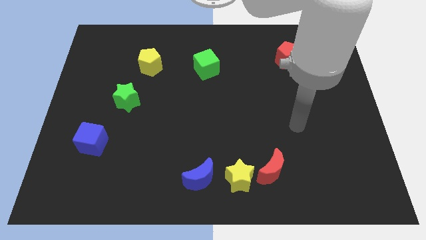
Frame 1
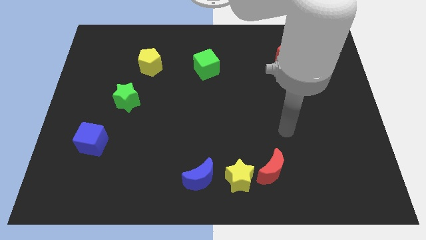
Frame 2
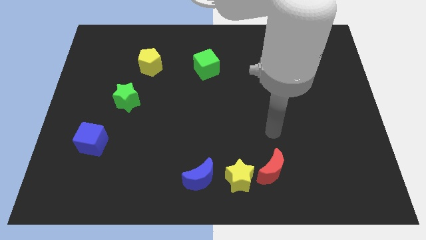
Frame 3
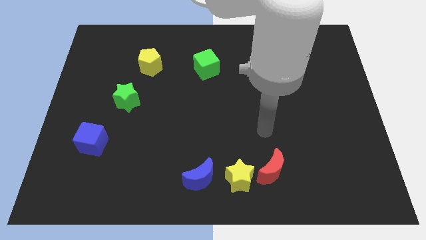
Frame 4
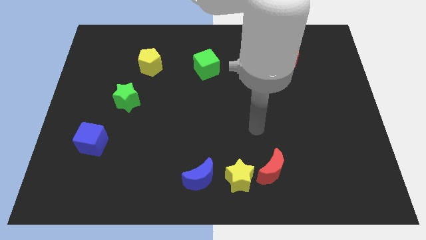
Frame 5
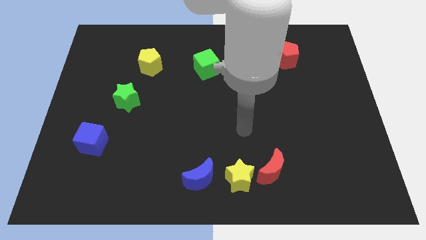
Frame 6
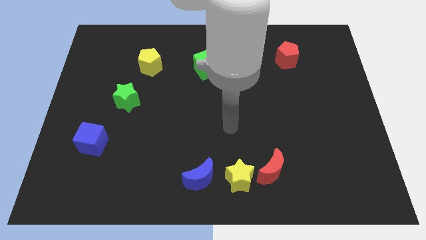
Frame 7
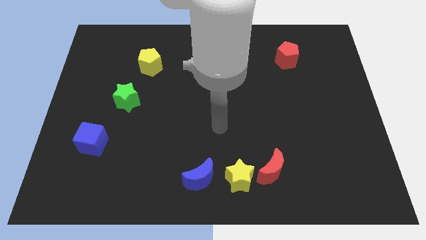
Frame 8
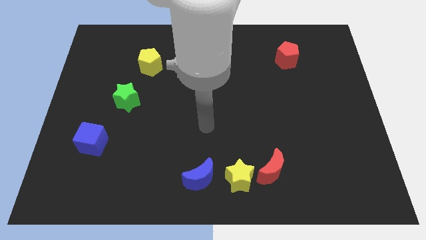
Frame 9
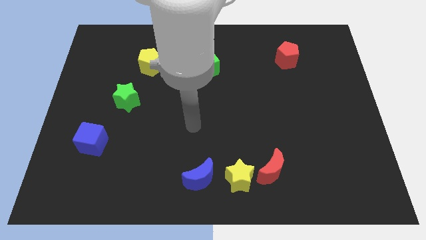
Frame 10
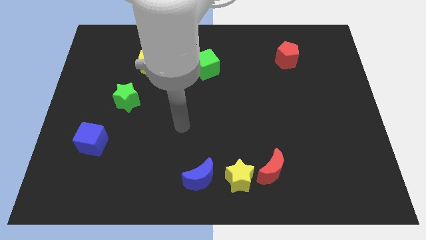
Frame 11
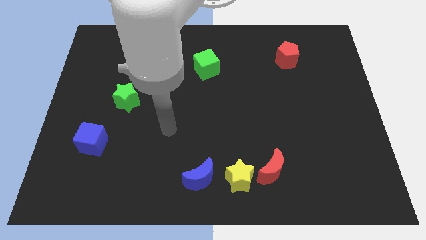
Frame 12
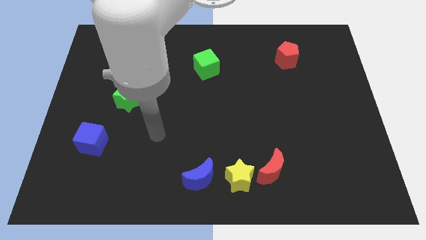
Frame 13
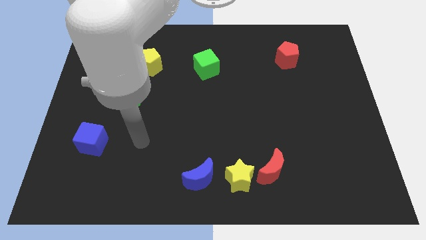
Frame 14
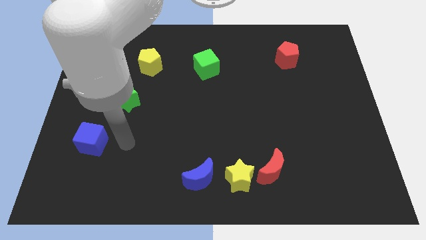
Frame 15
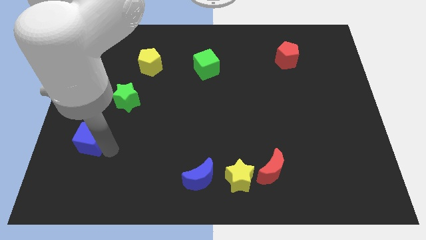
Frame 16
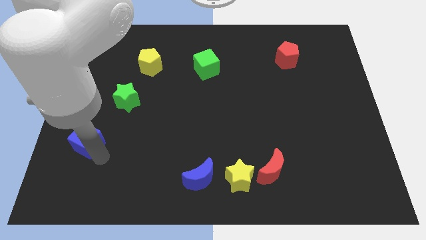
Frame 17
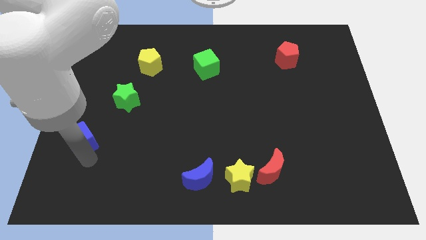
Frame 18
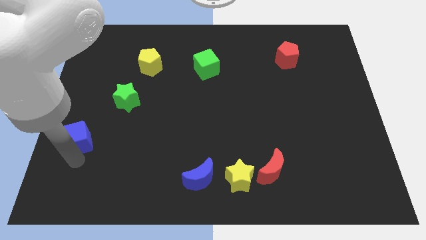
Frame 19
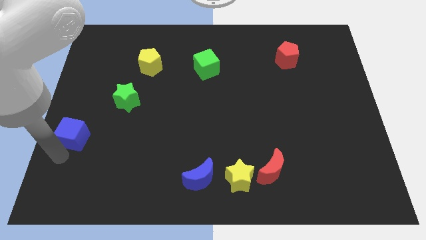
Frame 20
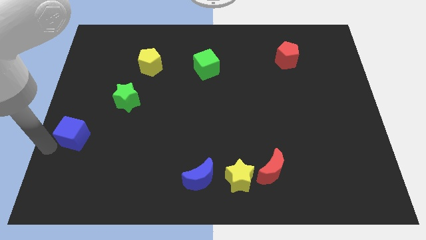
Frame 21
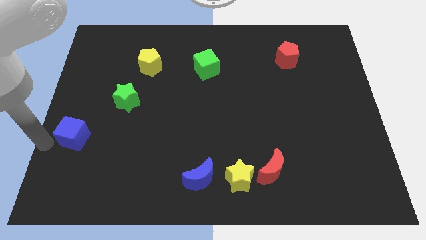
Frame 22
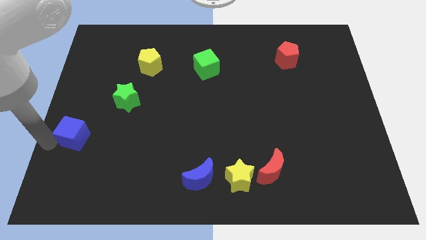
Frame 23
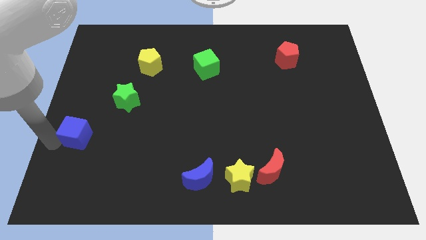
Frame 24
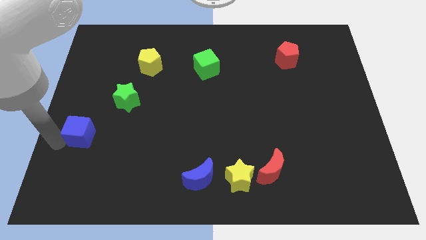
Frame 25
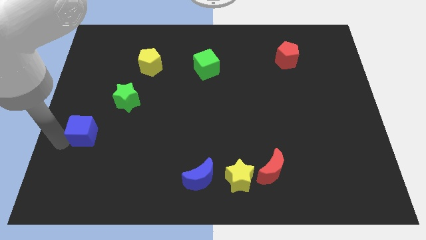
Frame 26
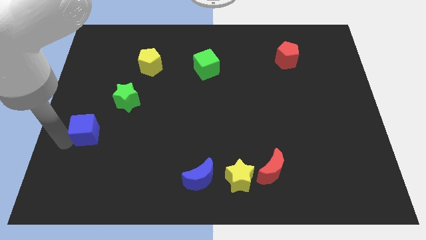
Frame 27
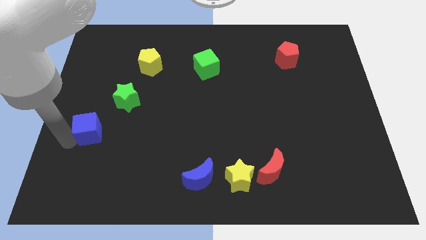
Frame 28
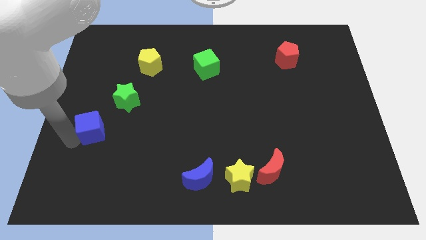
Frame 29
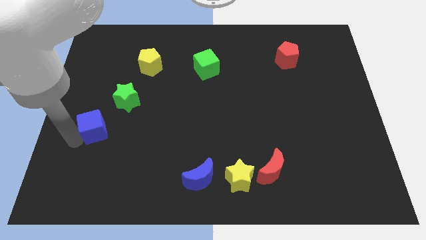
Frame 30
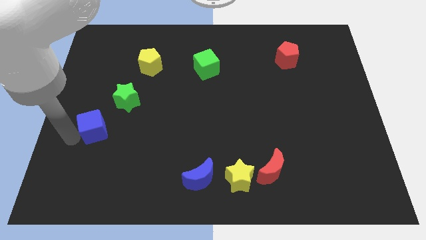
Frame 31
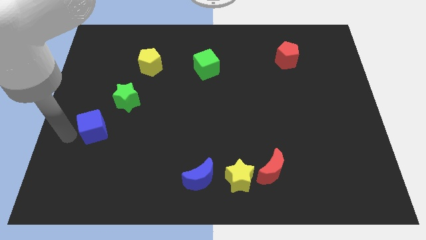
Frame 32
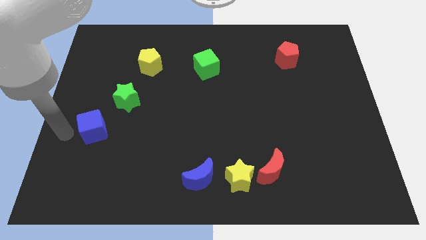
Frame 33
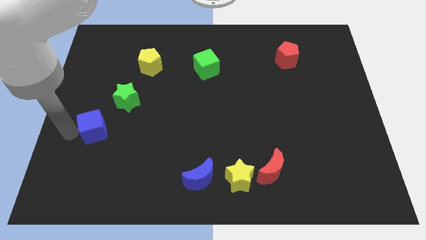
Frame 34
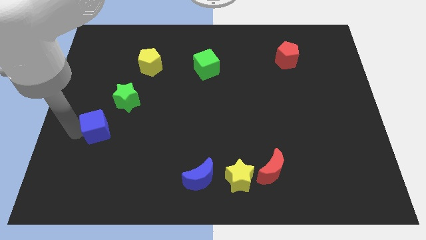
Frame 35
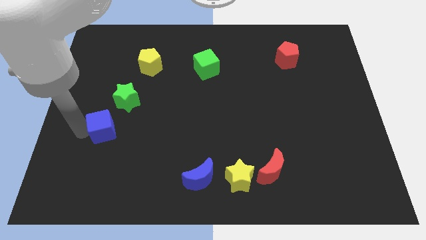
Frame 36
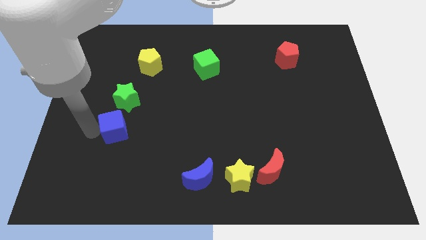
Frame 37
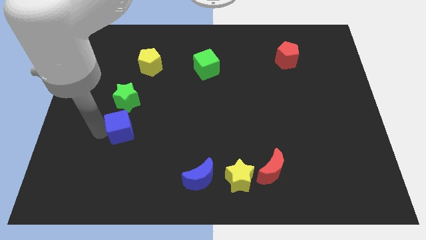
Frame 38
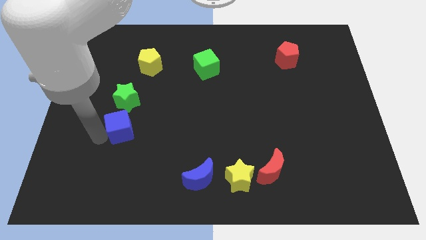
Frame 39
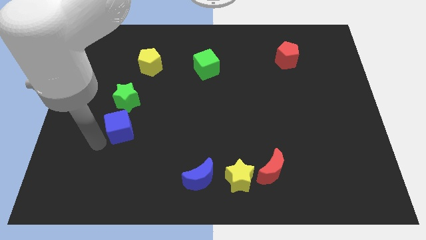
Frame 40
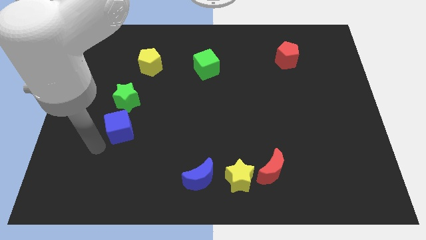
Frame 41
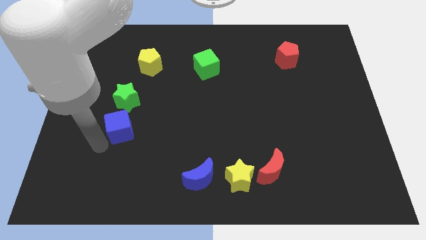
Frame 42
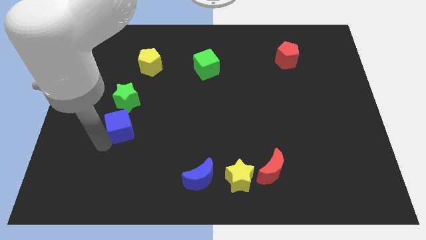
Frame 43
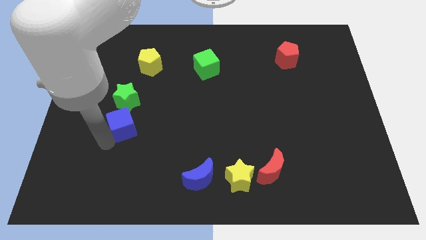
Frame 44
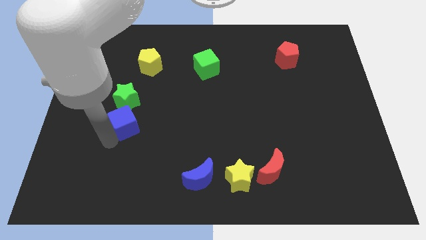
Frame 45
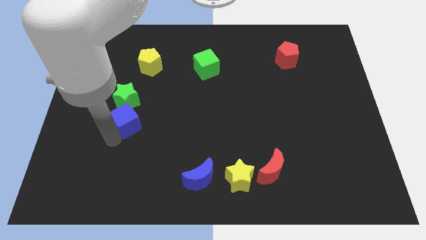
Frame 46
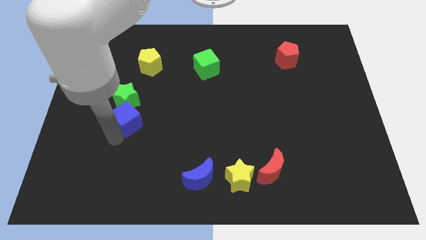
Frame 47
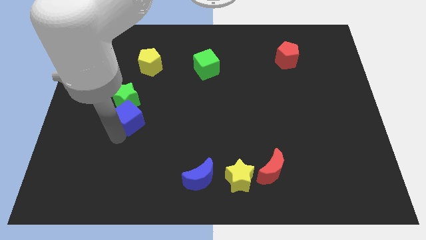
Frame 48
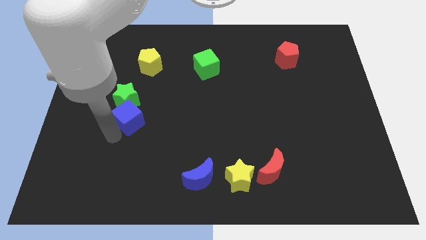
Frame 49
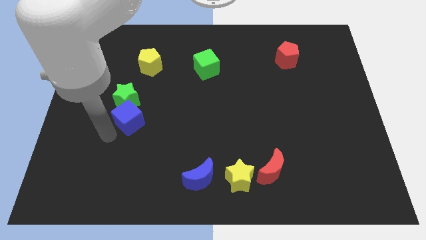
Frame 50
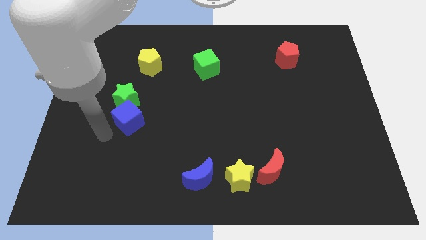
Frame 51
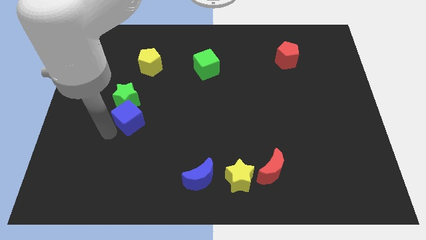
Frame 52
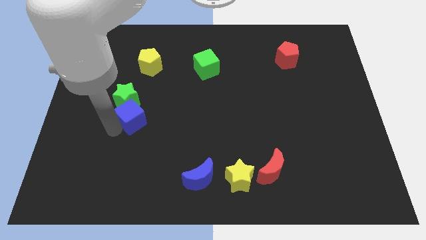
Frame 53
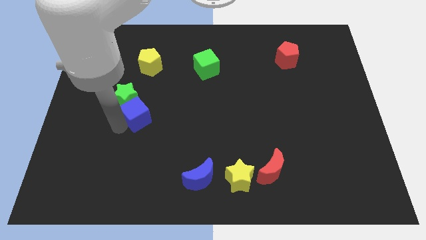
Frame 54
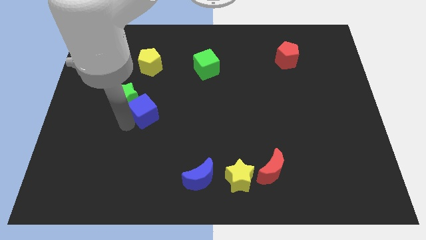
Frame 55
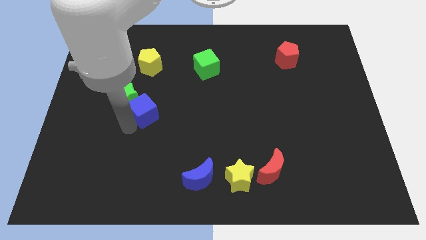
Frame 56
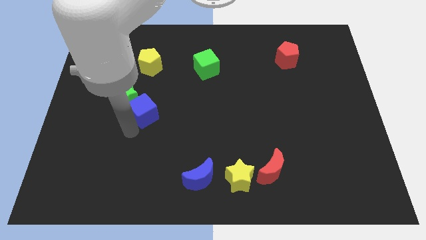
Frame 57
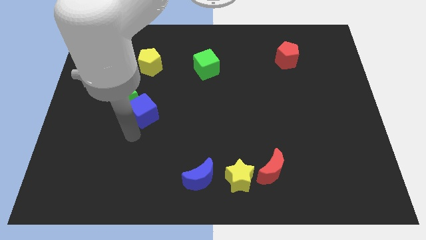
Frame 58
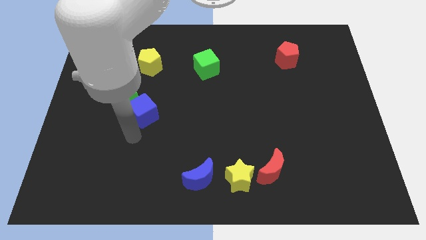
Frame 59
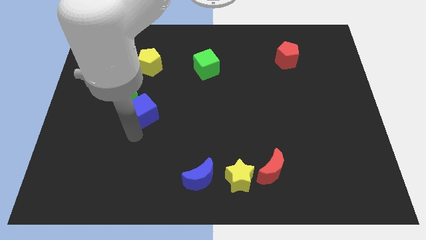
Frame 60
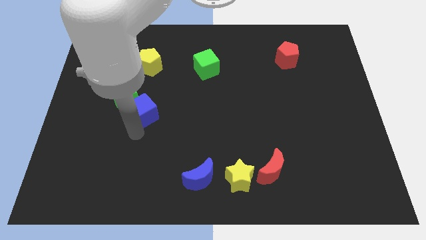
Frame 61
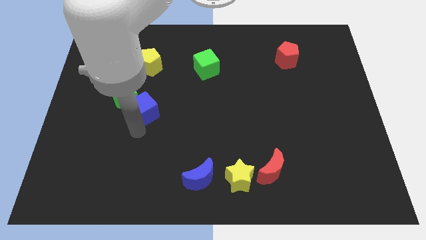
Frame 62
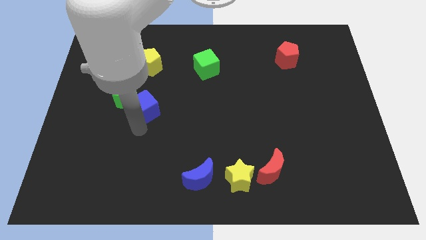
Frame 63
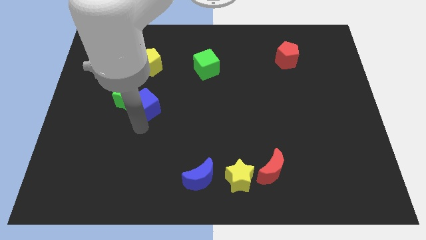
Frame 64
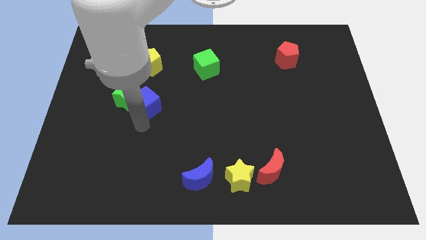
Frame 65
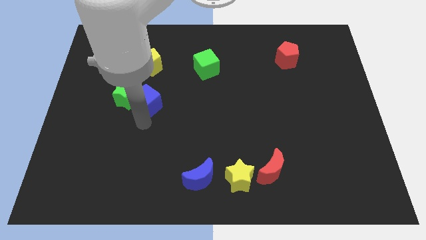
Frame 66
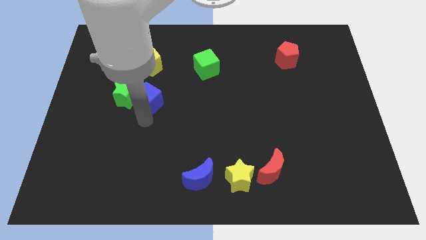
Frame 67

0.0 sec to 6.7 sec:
move the blue cube to the top right side of the green star

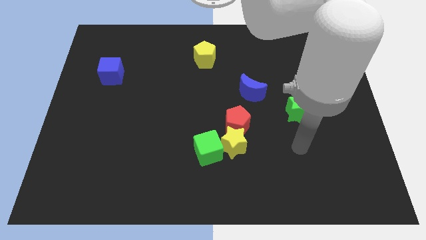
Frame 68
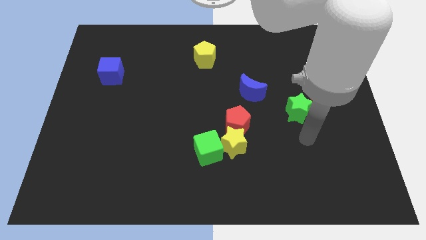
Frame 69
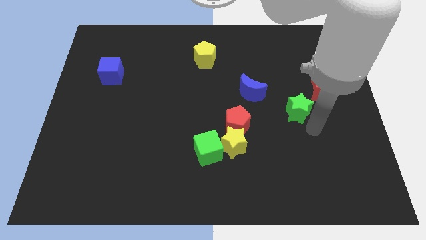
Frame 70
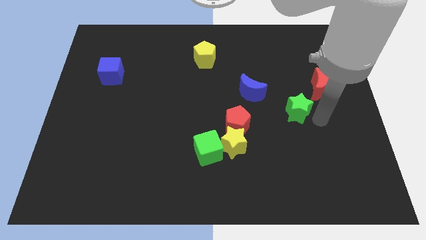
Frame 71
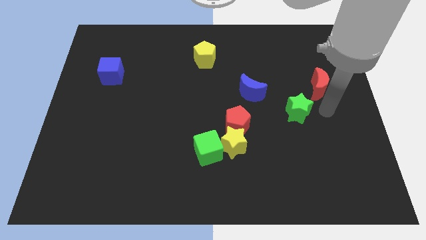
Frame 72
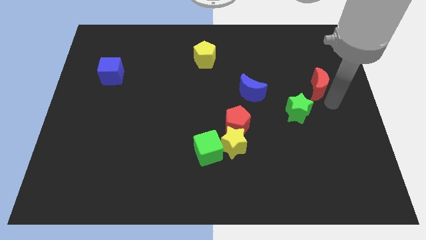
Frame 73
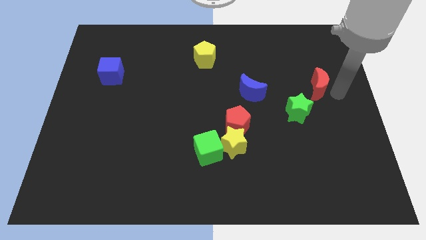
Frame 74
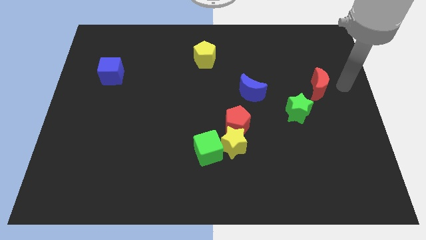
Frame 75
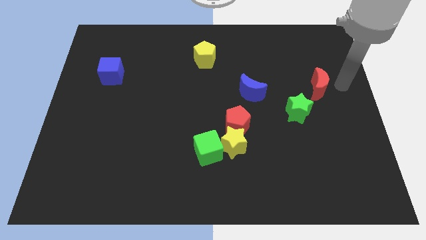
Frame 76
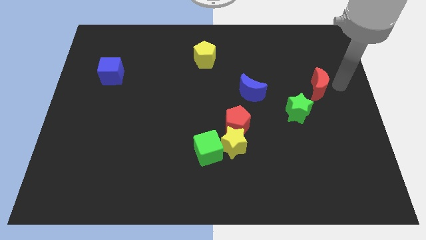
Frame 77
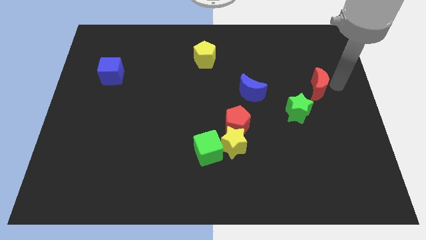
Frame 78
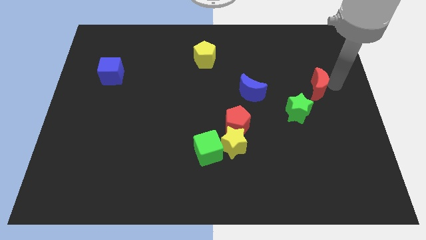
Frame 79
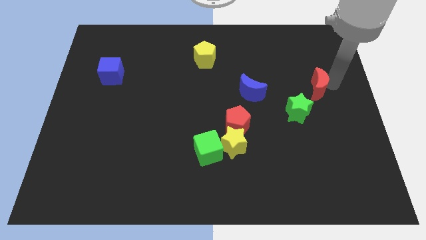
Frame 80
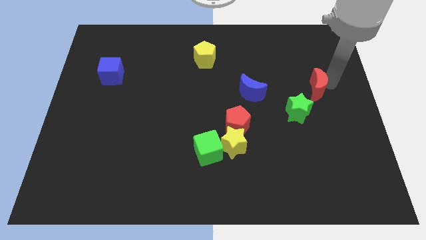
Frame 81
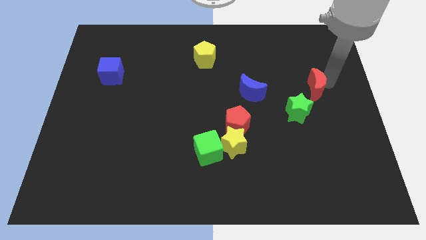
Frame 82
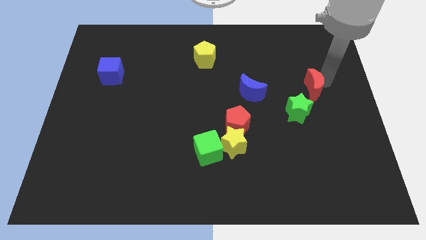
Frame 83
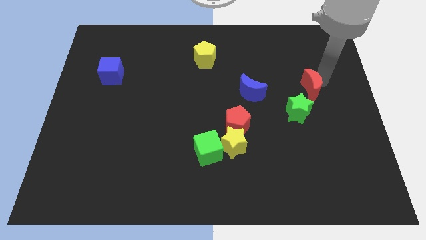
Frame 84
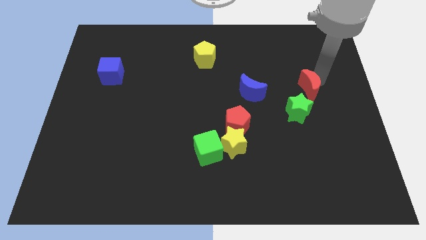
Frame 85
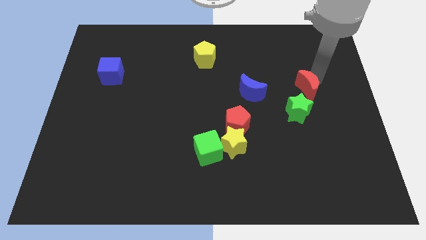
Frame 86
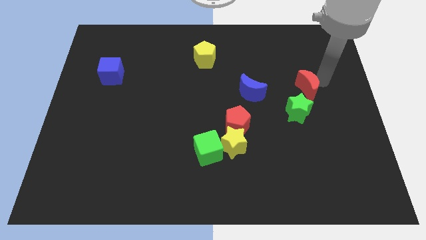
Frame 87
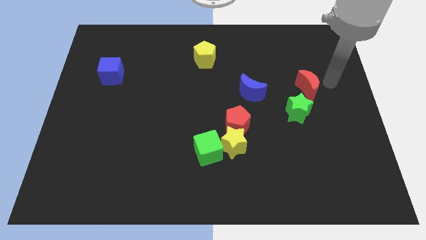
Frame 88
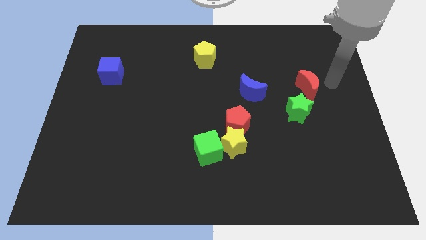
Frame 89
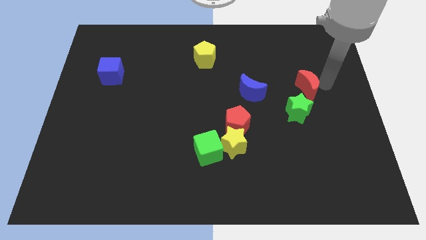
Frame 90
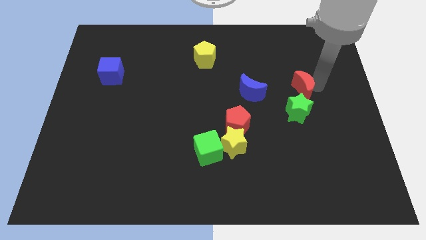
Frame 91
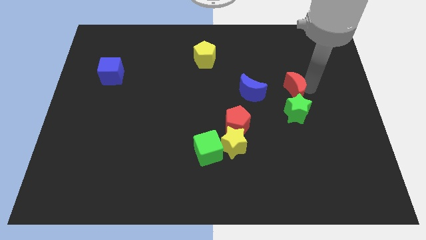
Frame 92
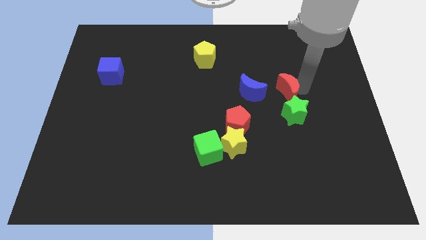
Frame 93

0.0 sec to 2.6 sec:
push the red moon to the top left side of the green star
